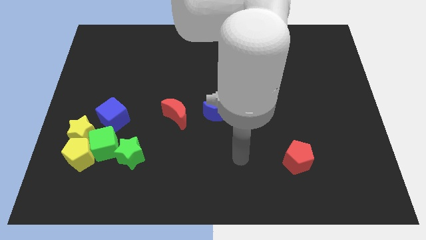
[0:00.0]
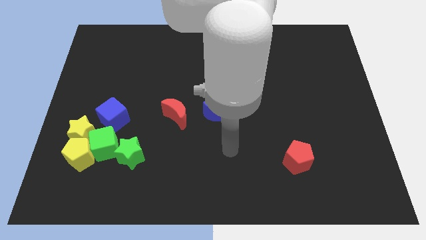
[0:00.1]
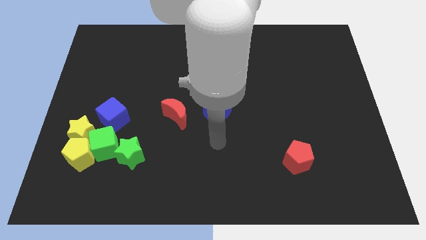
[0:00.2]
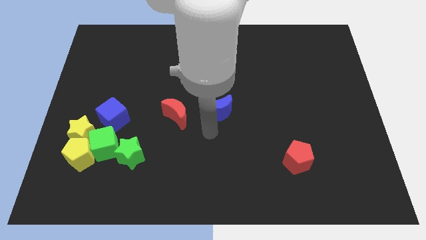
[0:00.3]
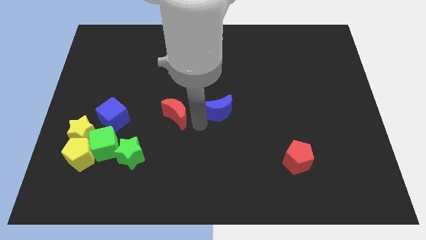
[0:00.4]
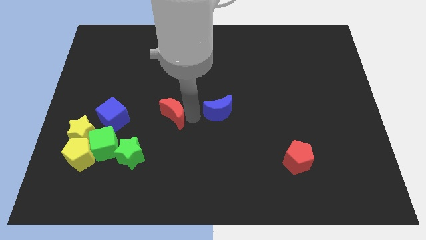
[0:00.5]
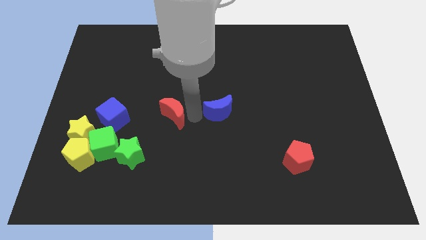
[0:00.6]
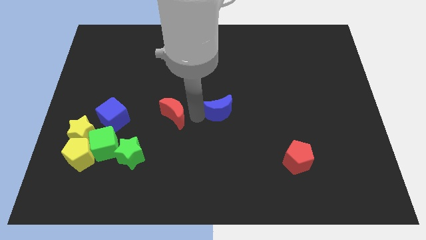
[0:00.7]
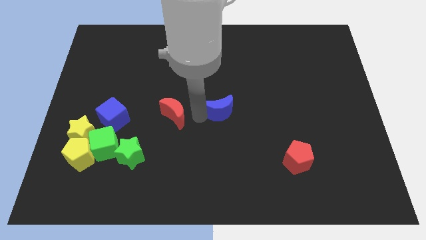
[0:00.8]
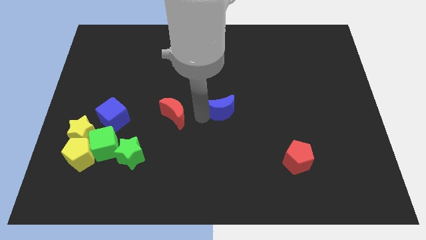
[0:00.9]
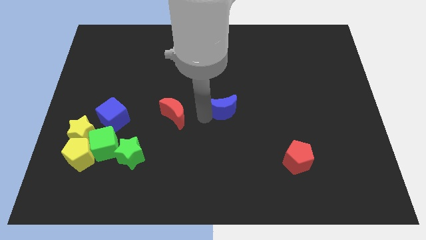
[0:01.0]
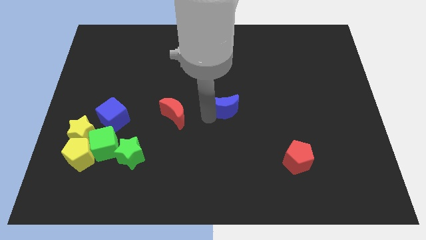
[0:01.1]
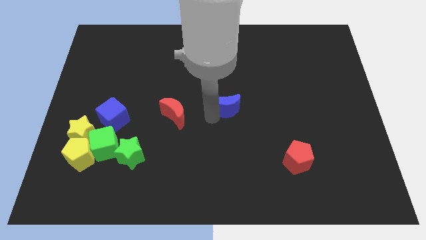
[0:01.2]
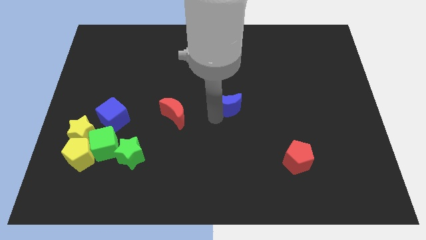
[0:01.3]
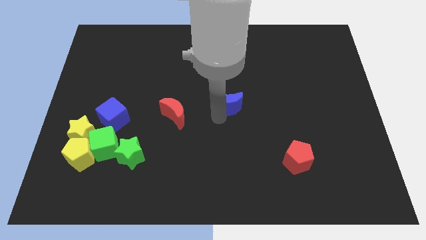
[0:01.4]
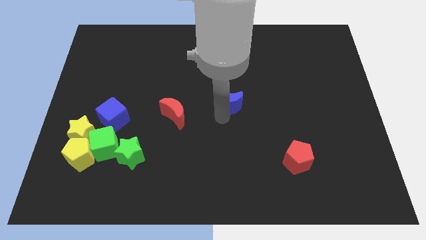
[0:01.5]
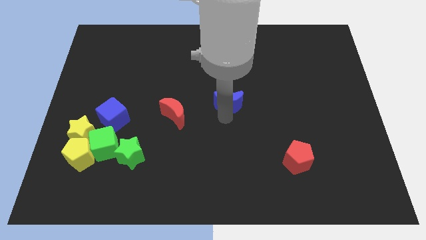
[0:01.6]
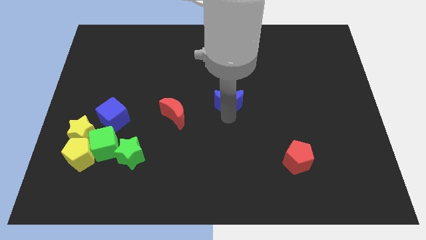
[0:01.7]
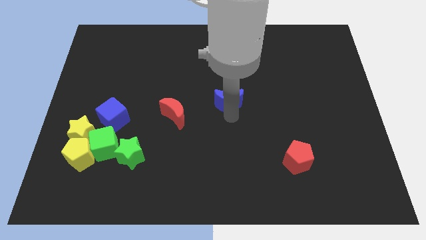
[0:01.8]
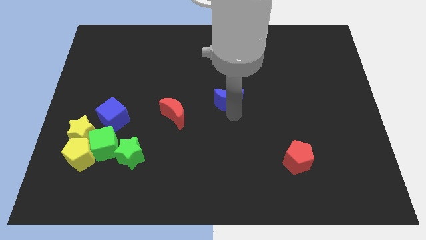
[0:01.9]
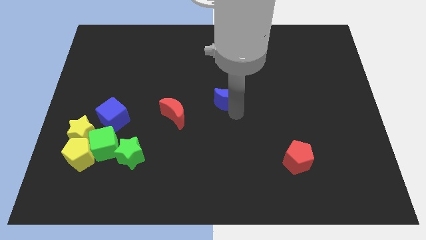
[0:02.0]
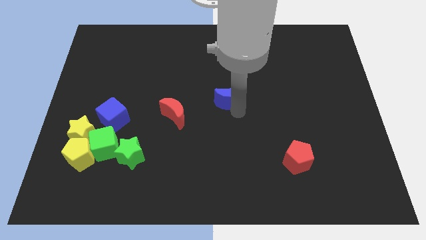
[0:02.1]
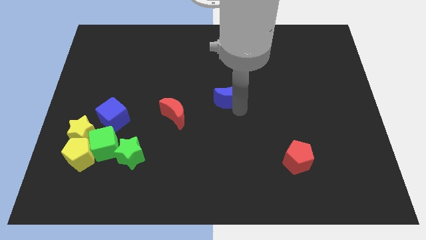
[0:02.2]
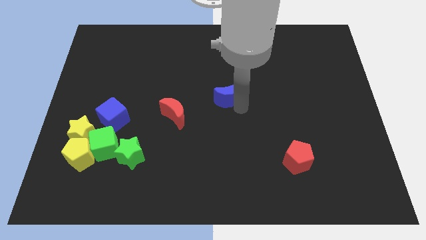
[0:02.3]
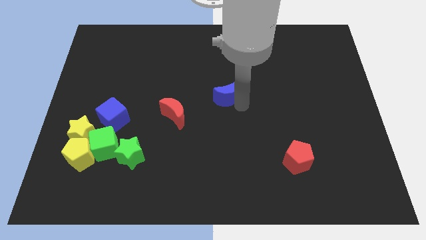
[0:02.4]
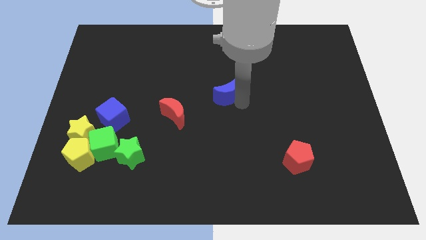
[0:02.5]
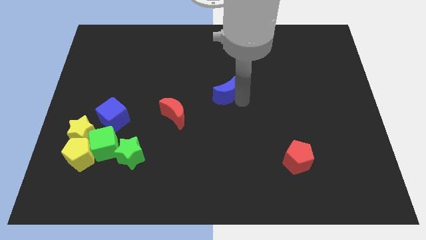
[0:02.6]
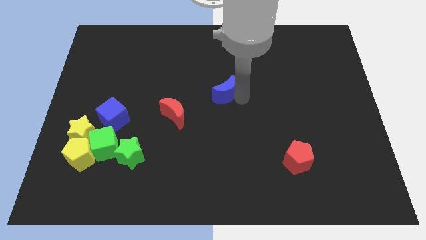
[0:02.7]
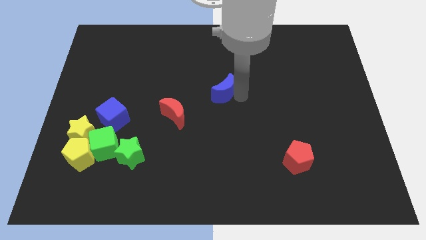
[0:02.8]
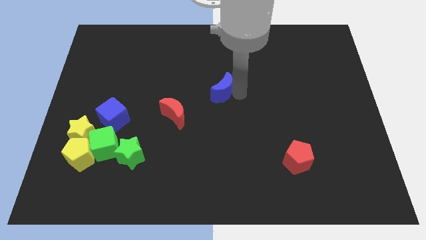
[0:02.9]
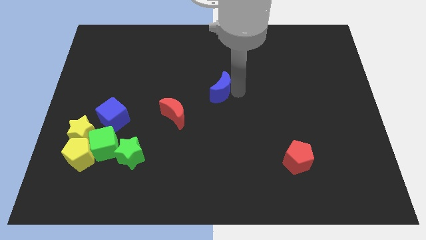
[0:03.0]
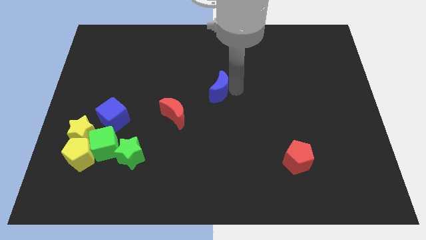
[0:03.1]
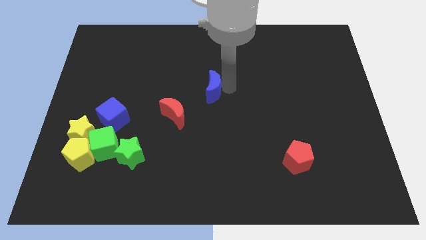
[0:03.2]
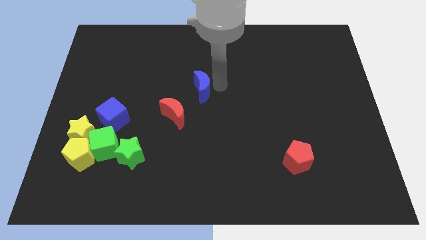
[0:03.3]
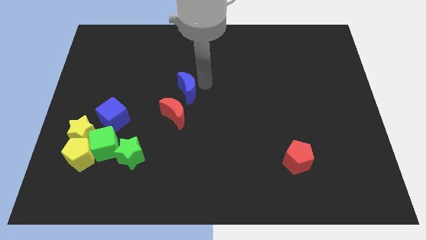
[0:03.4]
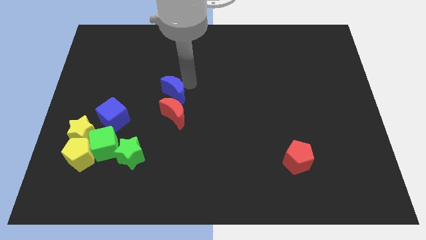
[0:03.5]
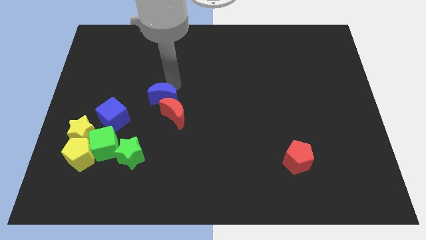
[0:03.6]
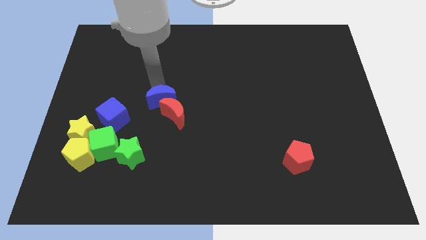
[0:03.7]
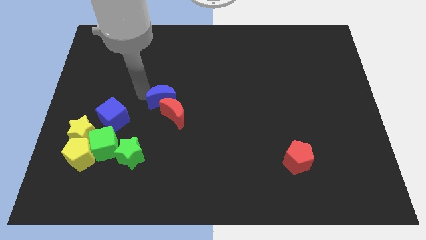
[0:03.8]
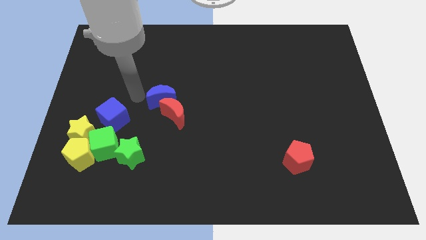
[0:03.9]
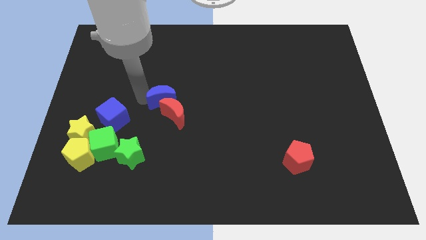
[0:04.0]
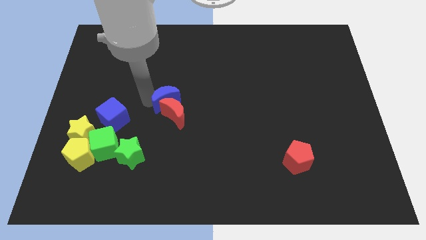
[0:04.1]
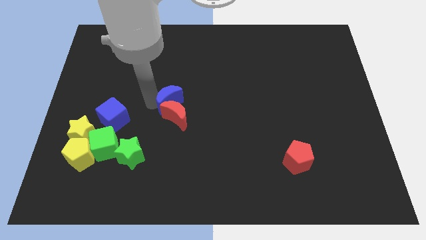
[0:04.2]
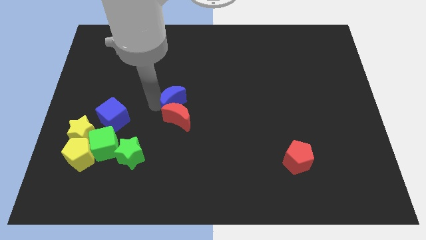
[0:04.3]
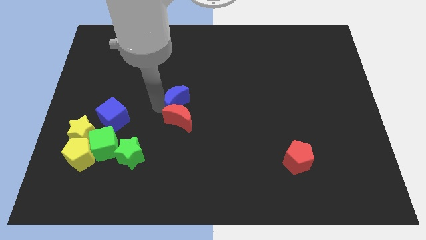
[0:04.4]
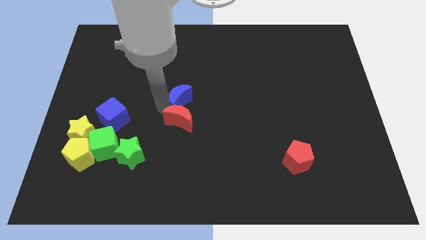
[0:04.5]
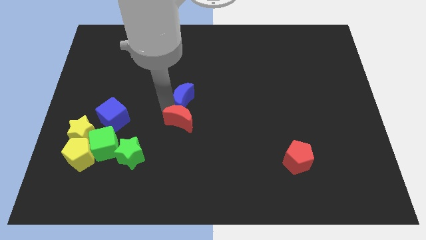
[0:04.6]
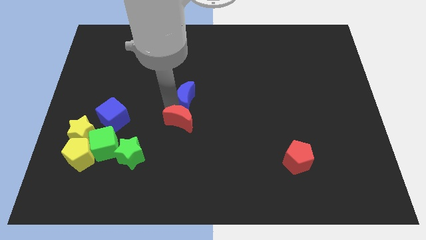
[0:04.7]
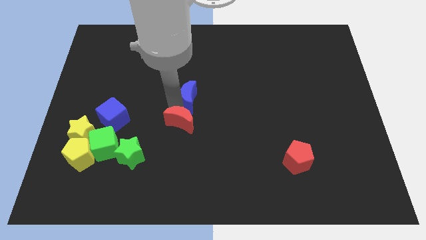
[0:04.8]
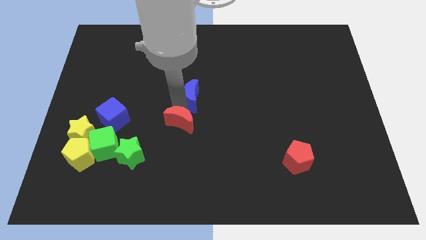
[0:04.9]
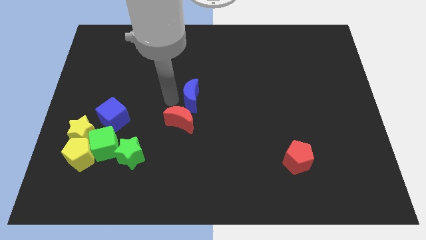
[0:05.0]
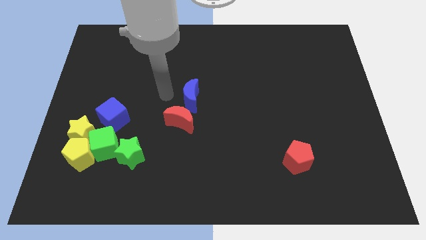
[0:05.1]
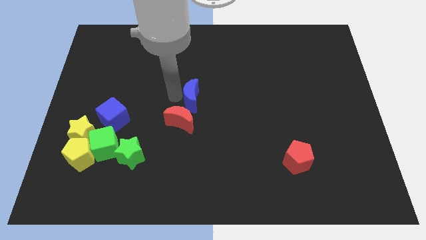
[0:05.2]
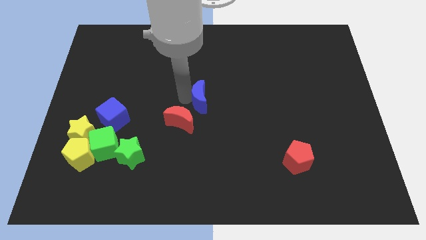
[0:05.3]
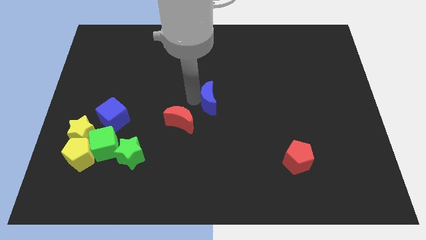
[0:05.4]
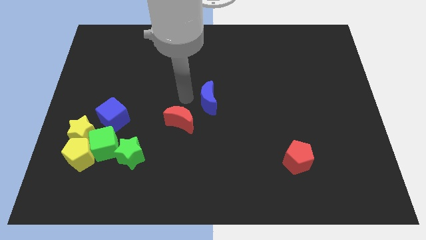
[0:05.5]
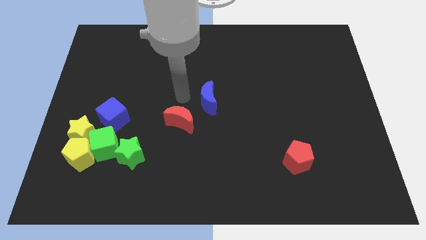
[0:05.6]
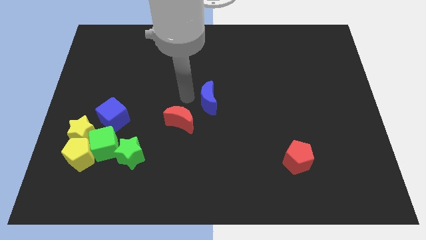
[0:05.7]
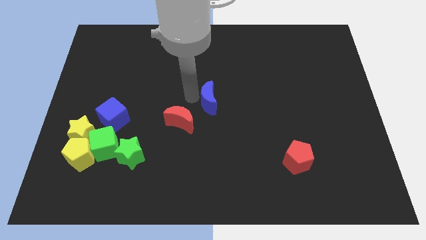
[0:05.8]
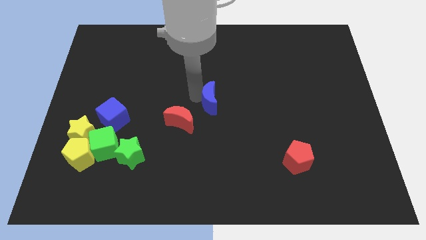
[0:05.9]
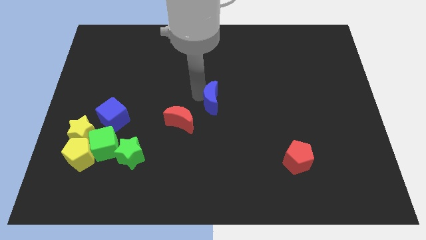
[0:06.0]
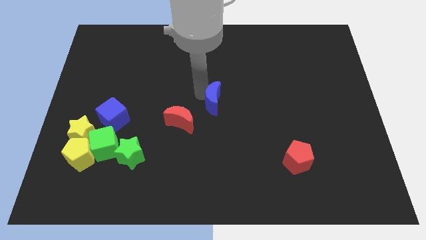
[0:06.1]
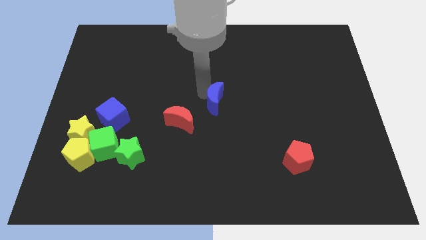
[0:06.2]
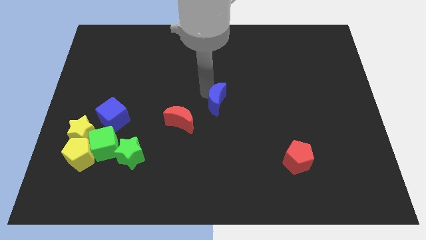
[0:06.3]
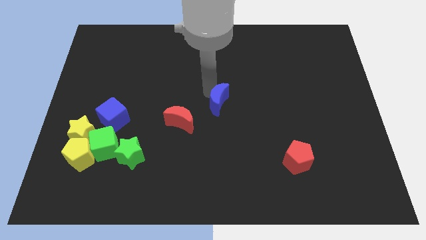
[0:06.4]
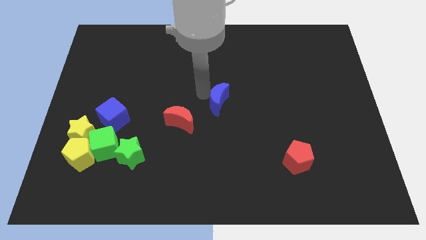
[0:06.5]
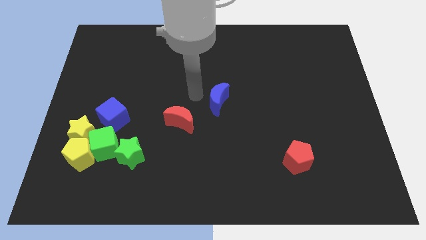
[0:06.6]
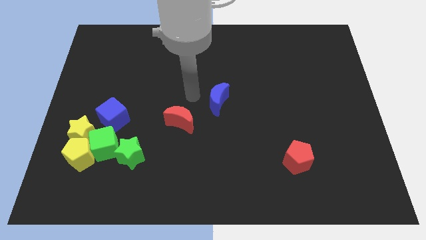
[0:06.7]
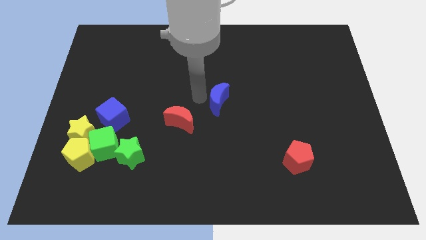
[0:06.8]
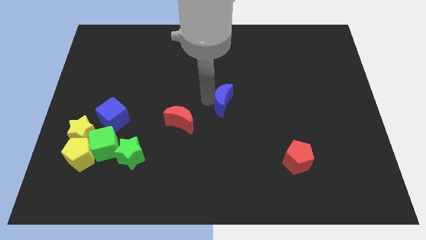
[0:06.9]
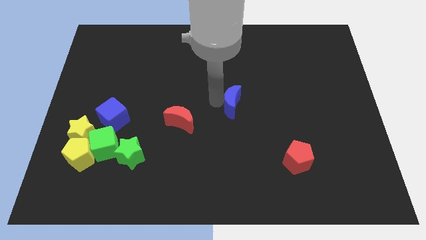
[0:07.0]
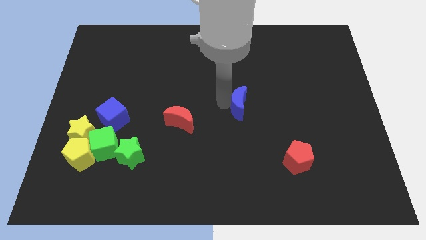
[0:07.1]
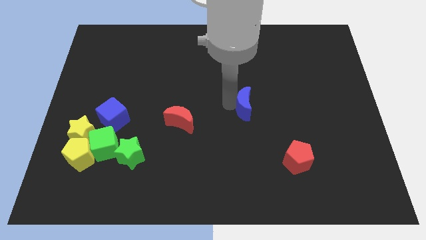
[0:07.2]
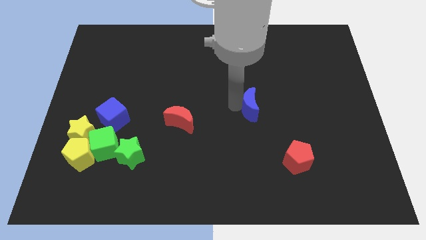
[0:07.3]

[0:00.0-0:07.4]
slightly slide the blue moon right

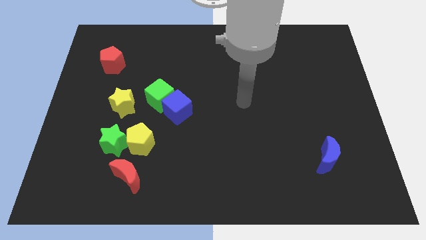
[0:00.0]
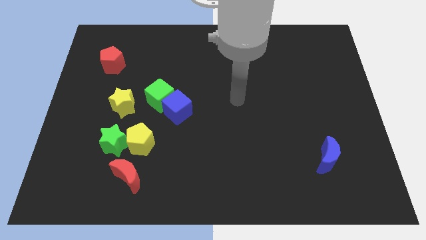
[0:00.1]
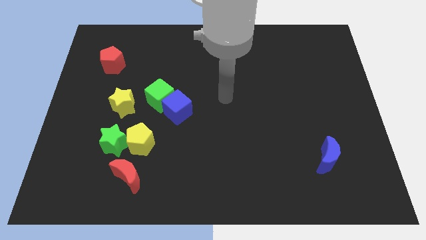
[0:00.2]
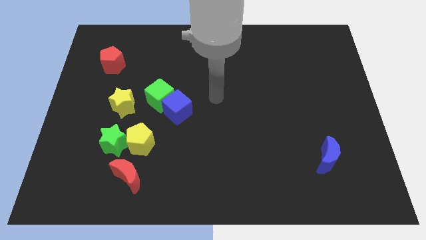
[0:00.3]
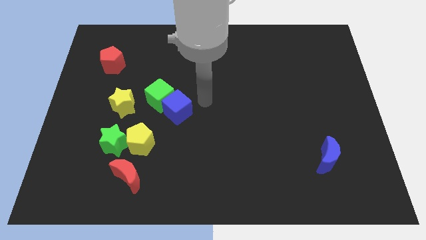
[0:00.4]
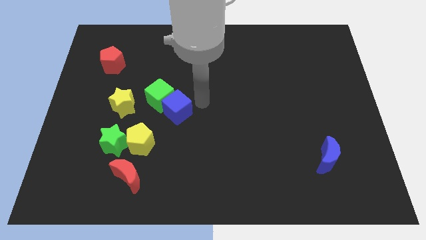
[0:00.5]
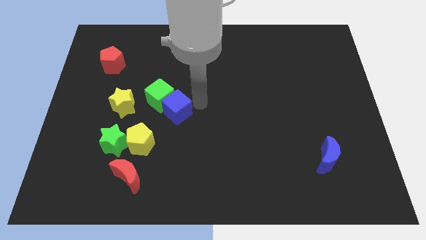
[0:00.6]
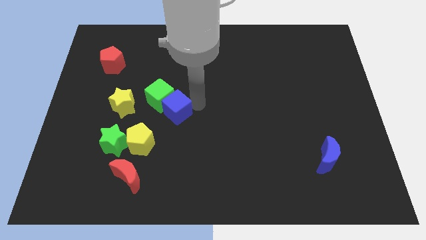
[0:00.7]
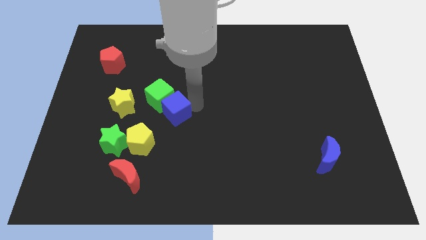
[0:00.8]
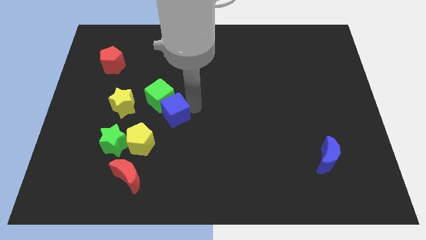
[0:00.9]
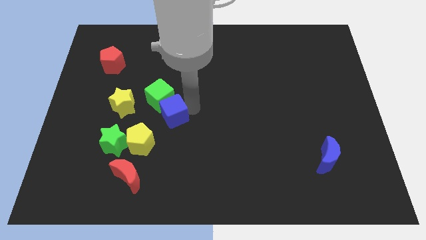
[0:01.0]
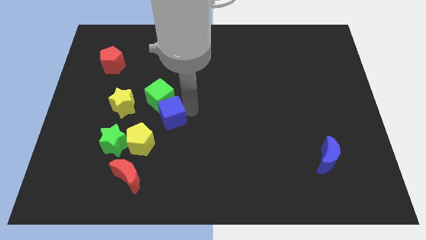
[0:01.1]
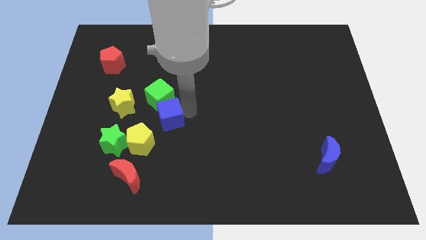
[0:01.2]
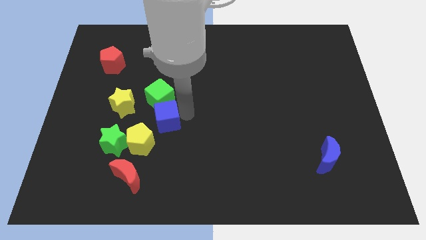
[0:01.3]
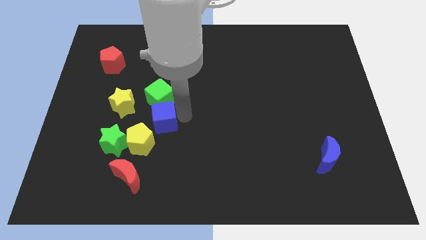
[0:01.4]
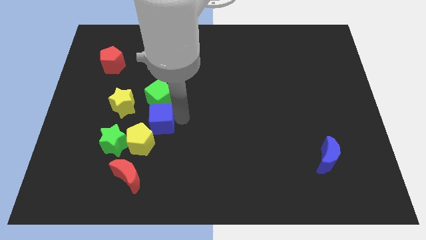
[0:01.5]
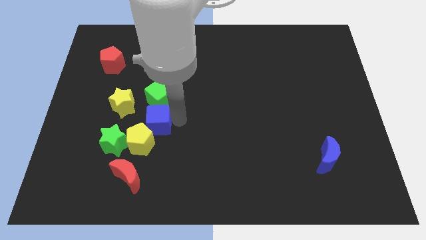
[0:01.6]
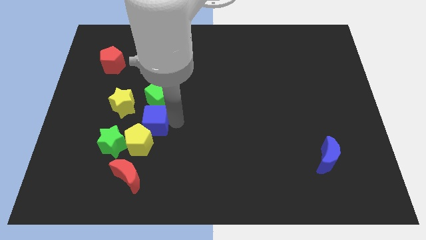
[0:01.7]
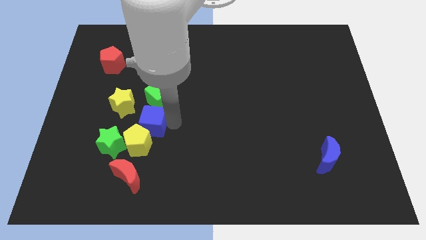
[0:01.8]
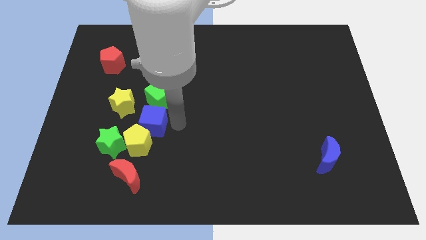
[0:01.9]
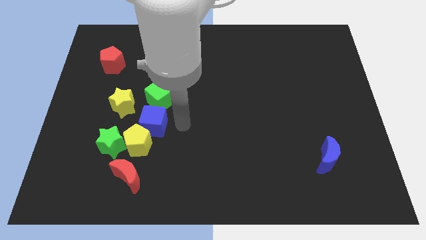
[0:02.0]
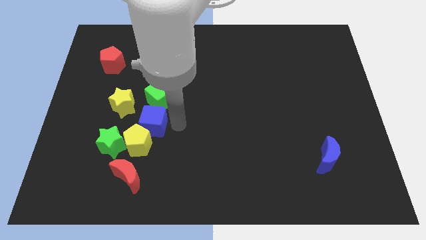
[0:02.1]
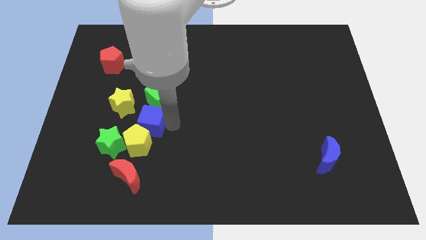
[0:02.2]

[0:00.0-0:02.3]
slightly move the blue cube down and left diagonally
